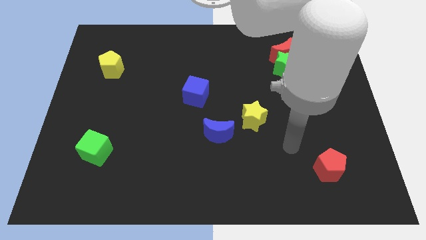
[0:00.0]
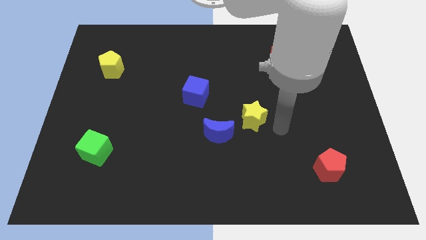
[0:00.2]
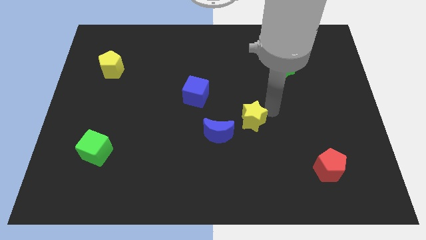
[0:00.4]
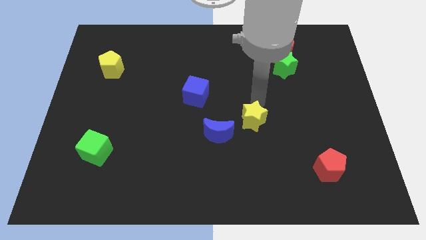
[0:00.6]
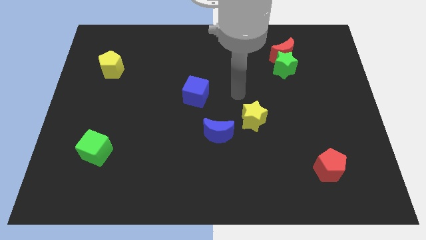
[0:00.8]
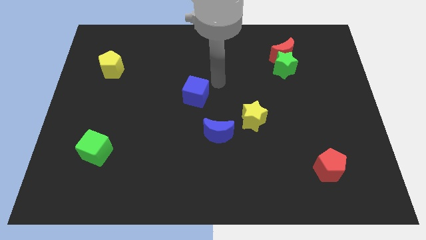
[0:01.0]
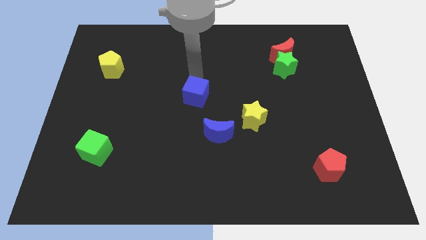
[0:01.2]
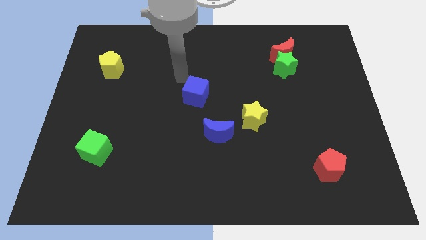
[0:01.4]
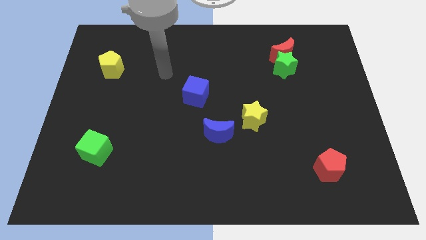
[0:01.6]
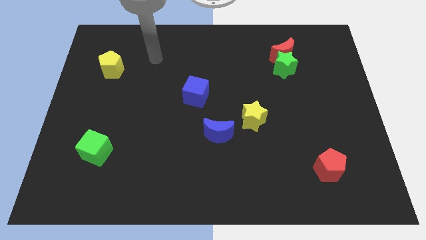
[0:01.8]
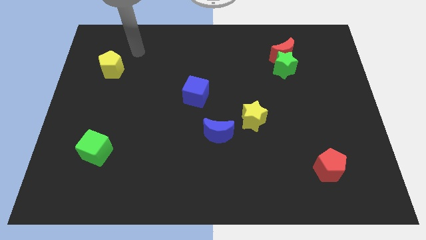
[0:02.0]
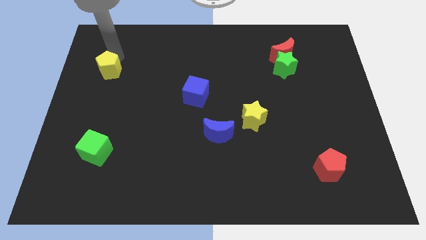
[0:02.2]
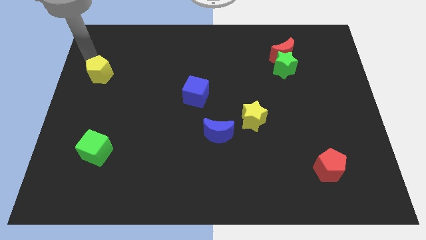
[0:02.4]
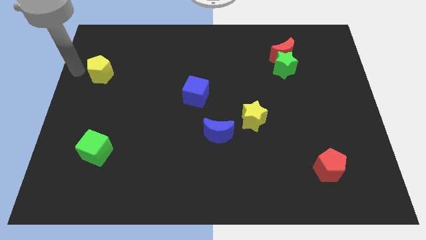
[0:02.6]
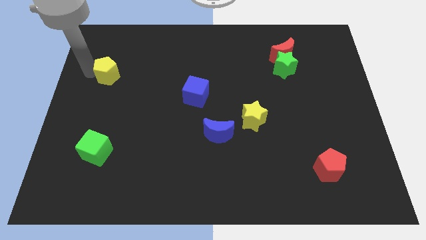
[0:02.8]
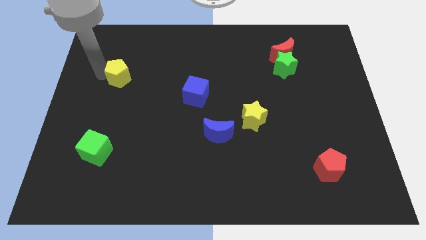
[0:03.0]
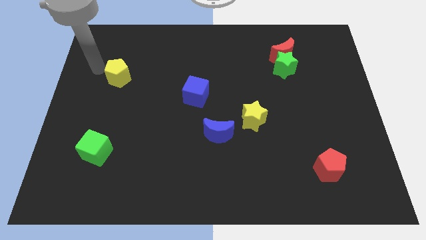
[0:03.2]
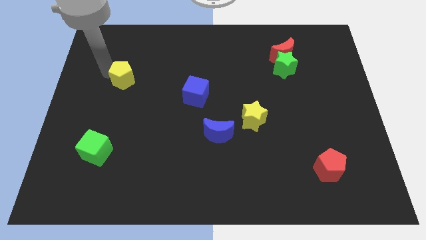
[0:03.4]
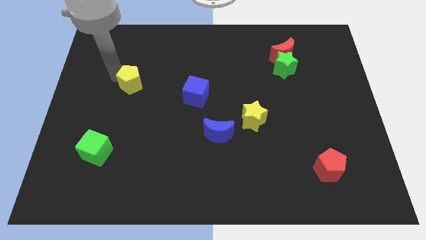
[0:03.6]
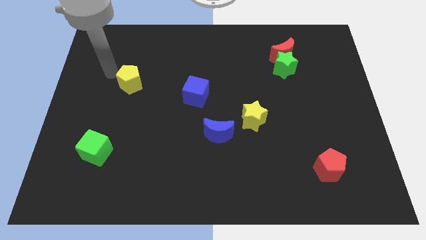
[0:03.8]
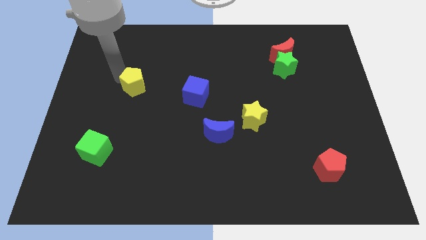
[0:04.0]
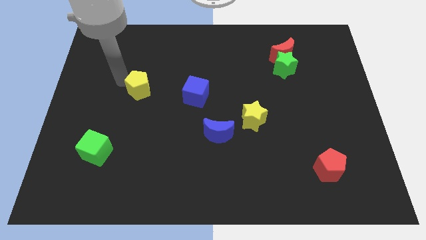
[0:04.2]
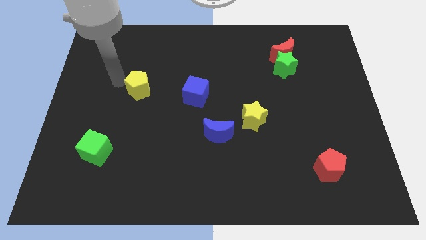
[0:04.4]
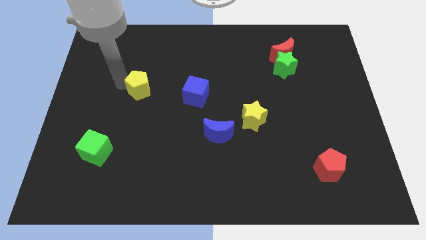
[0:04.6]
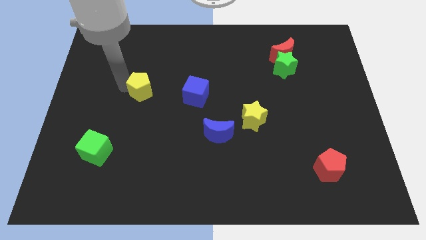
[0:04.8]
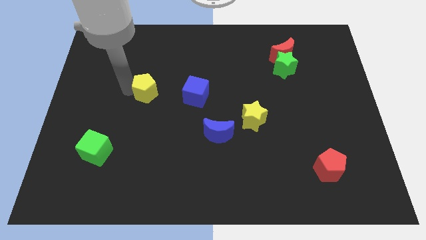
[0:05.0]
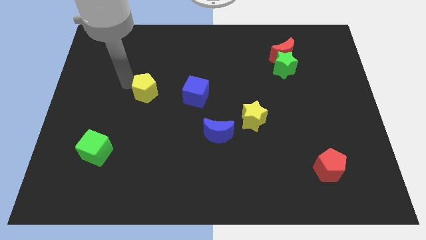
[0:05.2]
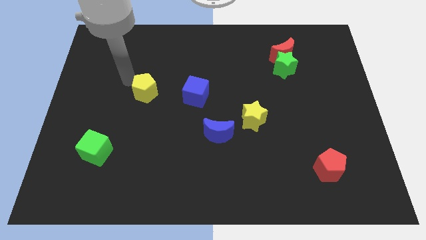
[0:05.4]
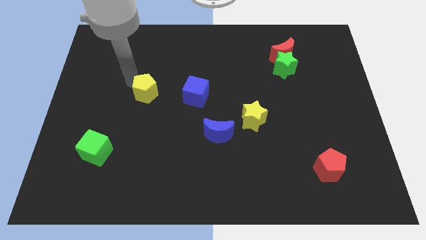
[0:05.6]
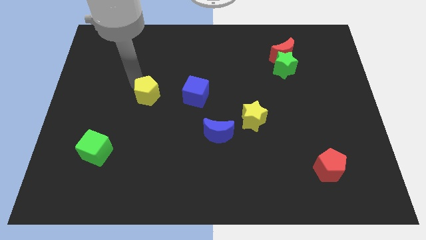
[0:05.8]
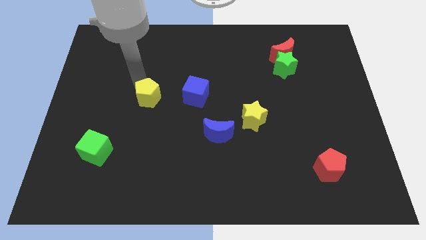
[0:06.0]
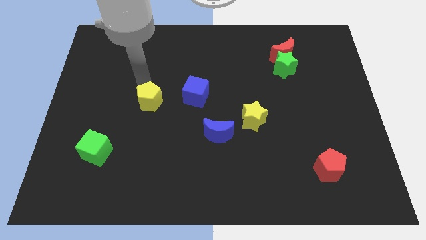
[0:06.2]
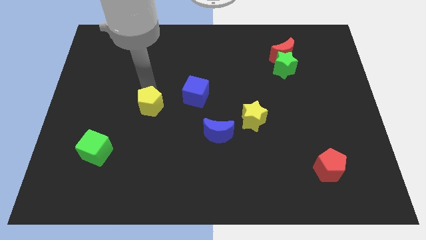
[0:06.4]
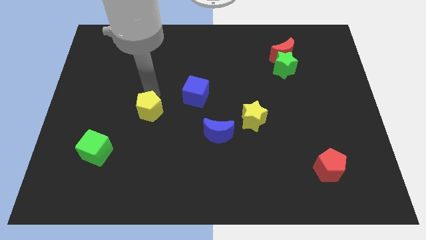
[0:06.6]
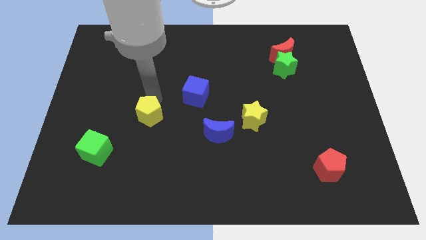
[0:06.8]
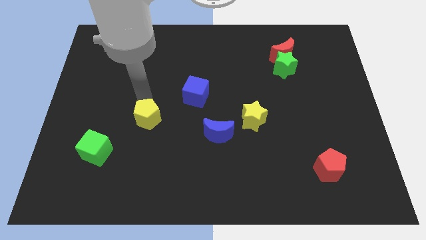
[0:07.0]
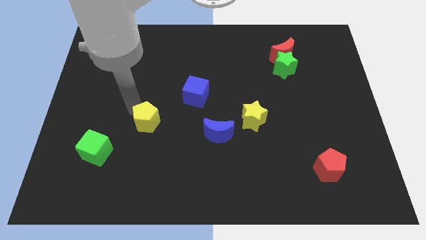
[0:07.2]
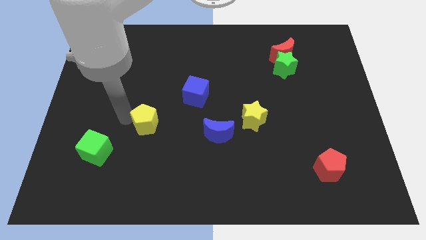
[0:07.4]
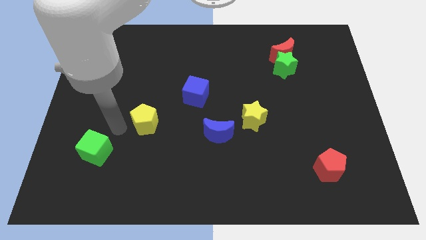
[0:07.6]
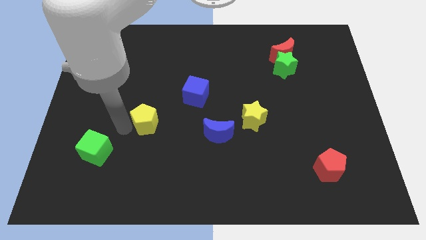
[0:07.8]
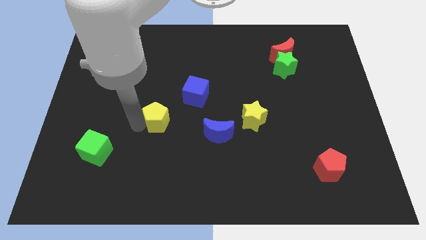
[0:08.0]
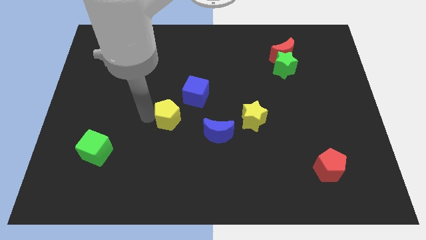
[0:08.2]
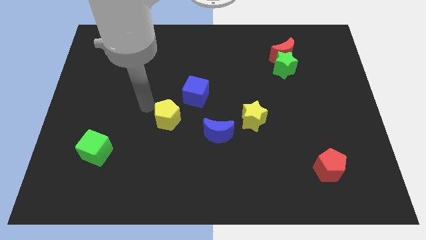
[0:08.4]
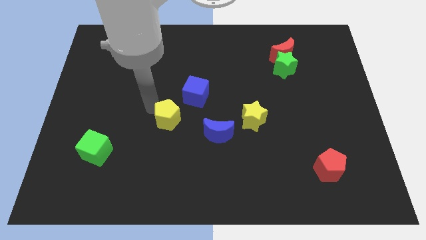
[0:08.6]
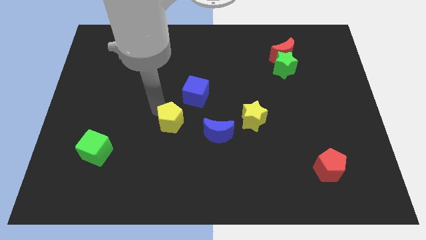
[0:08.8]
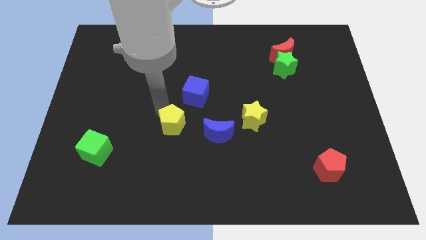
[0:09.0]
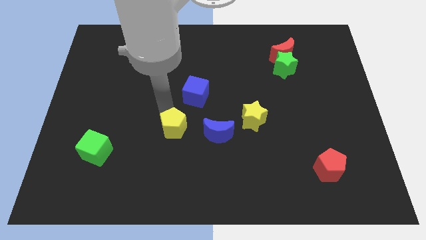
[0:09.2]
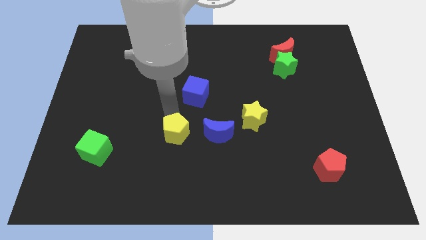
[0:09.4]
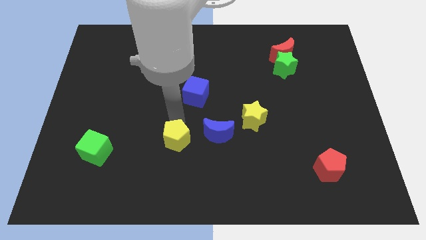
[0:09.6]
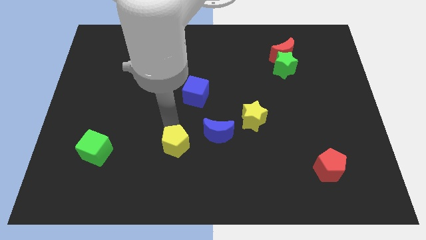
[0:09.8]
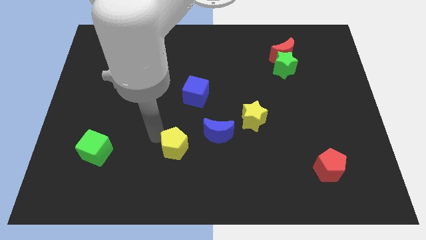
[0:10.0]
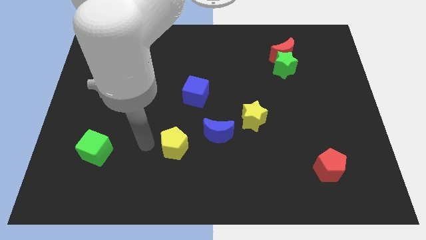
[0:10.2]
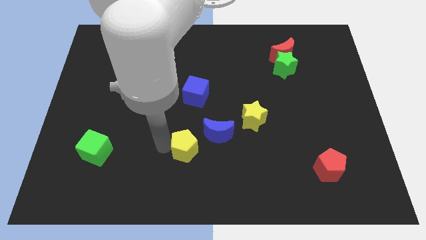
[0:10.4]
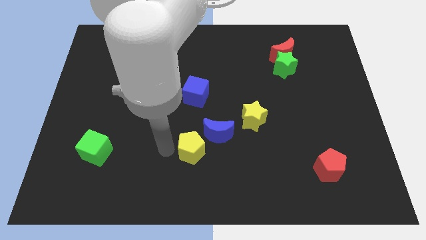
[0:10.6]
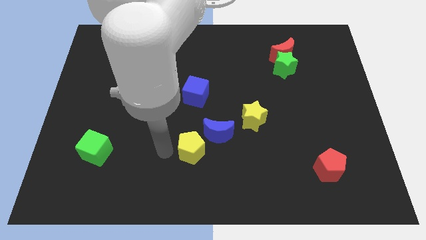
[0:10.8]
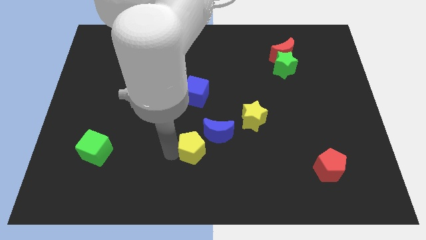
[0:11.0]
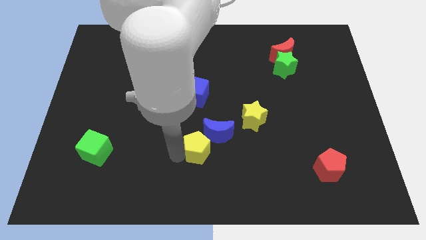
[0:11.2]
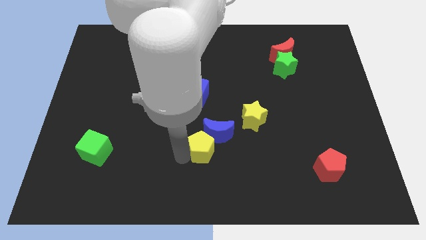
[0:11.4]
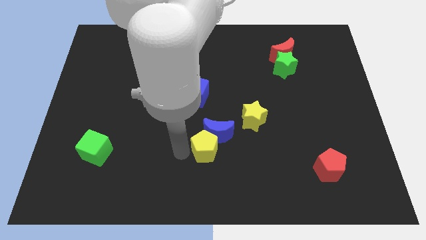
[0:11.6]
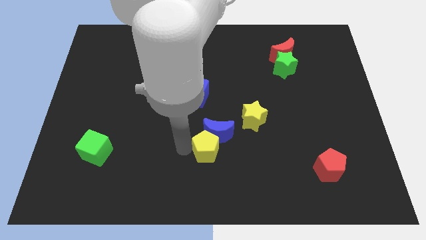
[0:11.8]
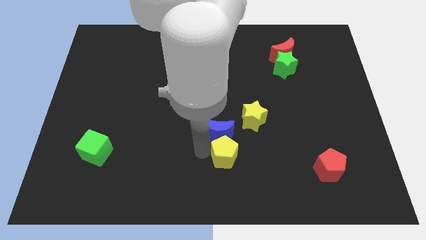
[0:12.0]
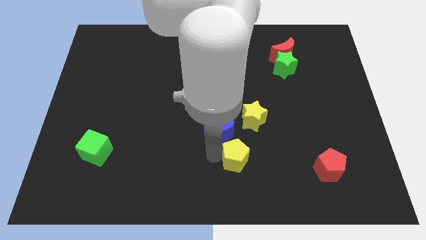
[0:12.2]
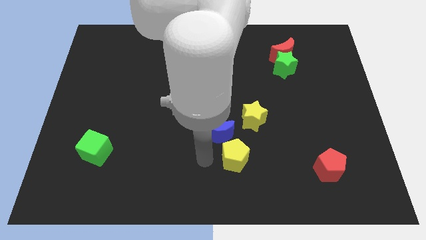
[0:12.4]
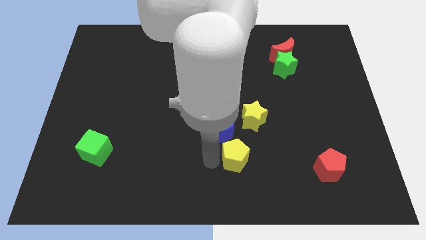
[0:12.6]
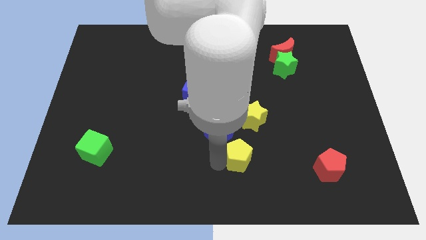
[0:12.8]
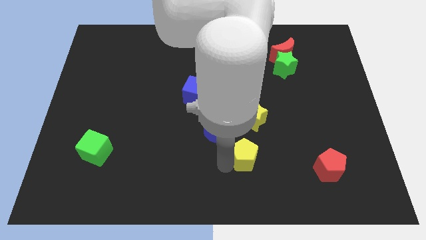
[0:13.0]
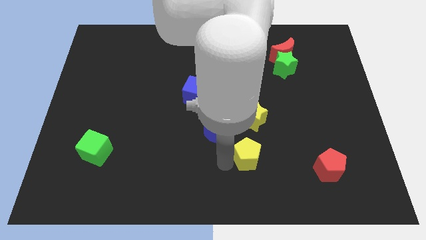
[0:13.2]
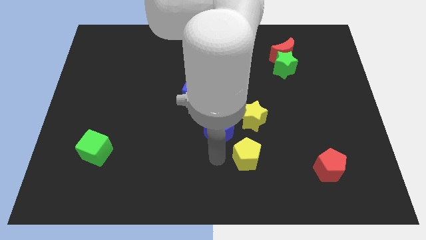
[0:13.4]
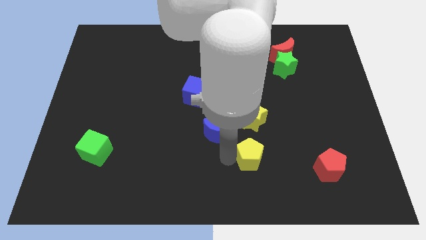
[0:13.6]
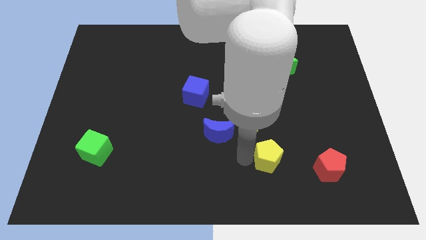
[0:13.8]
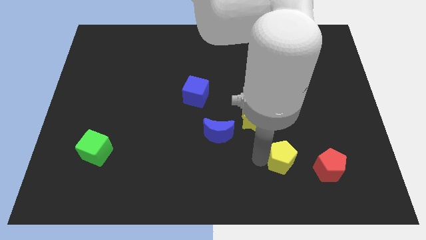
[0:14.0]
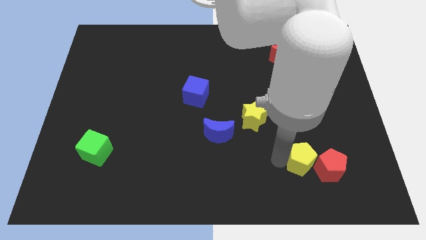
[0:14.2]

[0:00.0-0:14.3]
put the yellow pentagon close to the red pentagon
